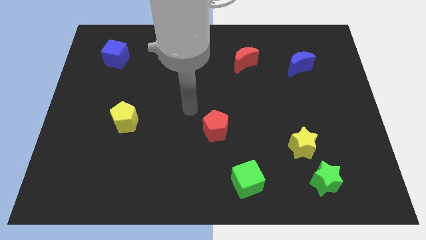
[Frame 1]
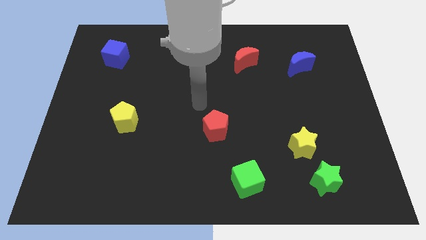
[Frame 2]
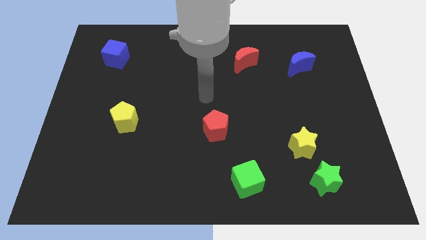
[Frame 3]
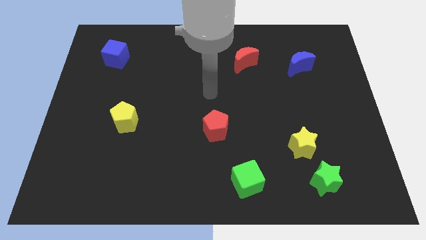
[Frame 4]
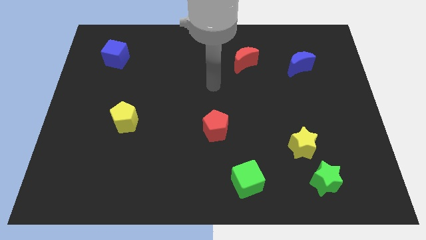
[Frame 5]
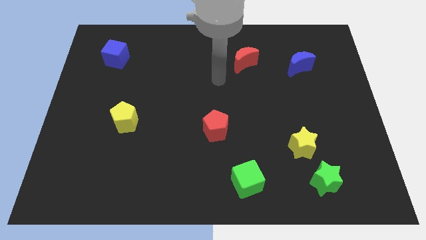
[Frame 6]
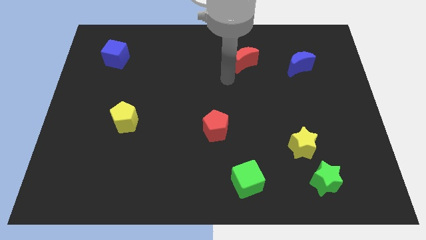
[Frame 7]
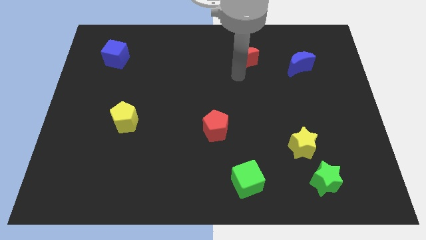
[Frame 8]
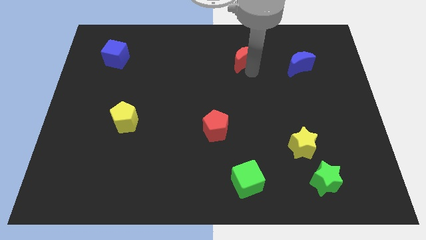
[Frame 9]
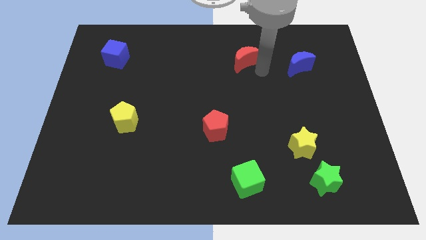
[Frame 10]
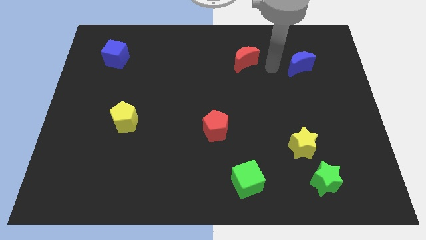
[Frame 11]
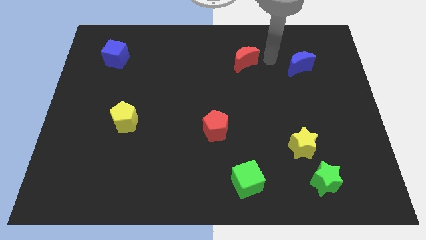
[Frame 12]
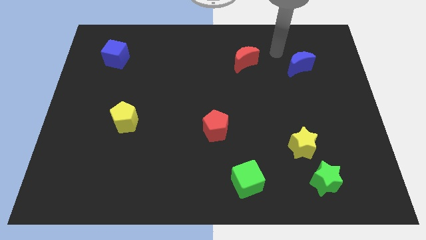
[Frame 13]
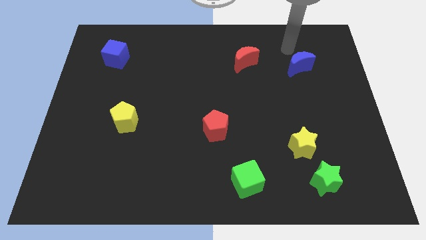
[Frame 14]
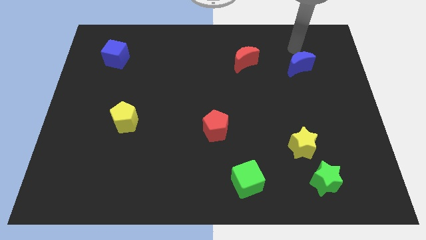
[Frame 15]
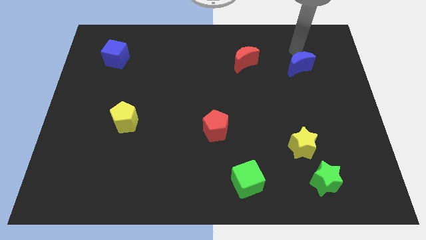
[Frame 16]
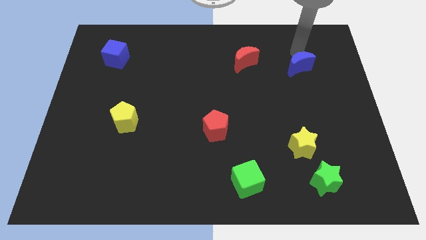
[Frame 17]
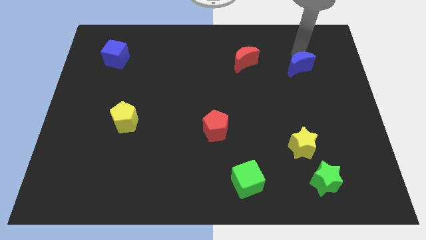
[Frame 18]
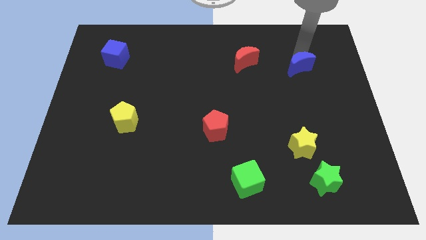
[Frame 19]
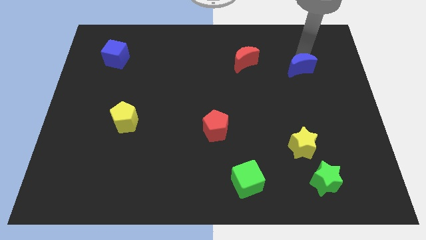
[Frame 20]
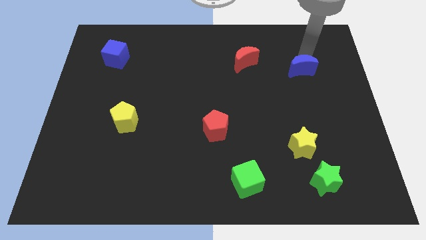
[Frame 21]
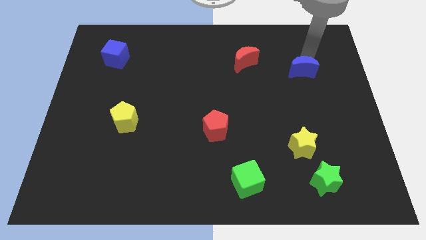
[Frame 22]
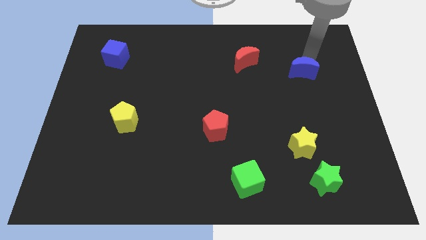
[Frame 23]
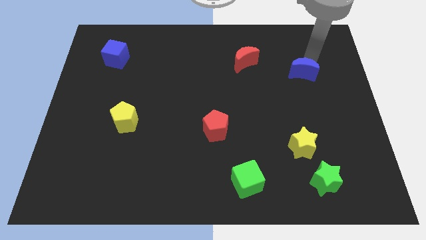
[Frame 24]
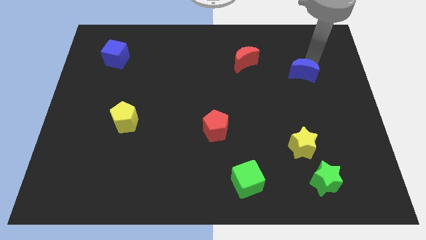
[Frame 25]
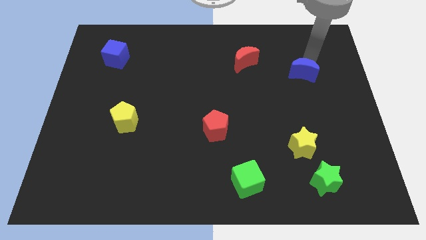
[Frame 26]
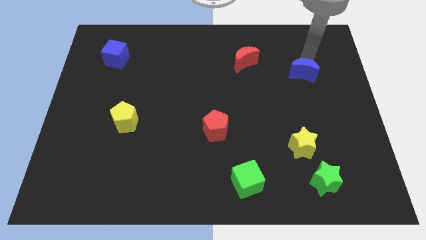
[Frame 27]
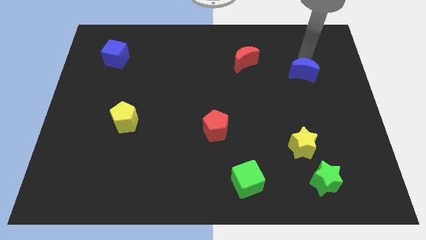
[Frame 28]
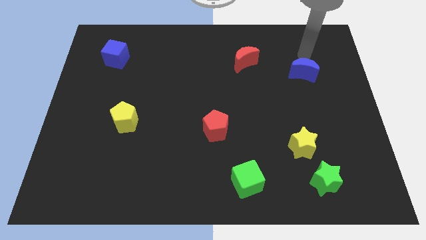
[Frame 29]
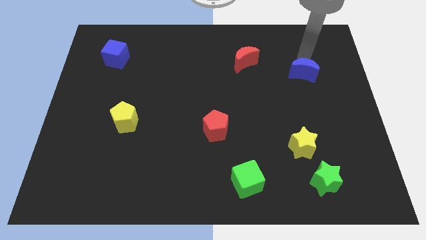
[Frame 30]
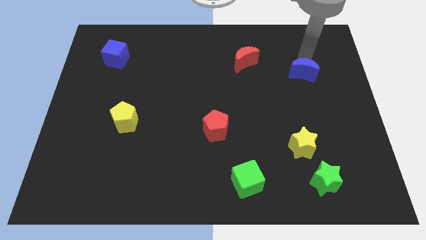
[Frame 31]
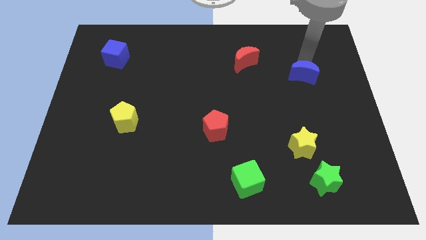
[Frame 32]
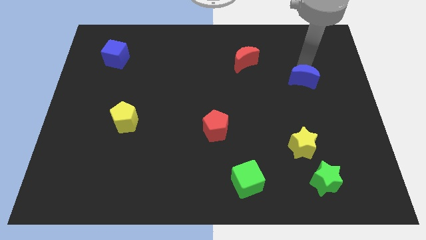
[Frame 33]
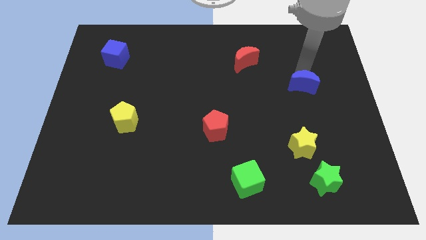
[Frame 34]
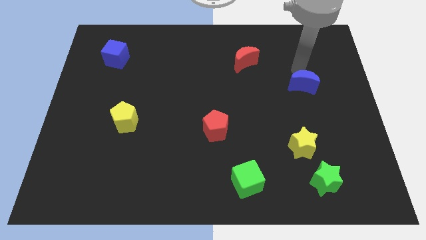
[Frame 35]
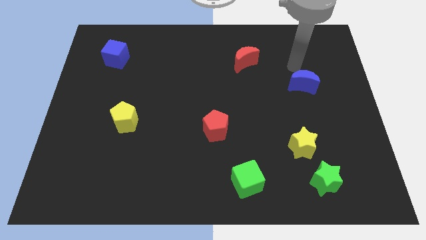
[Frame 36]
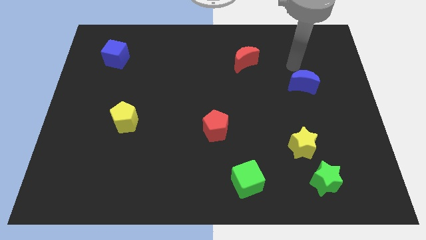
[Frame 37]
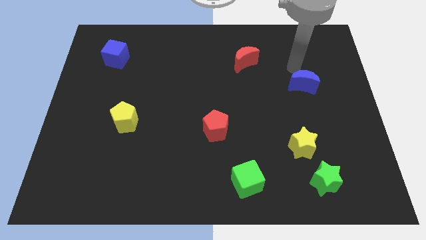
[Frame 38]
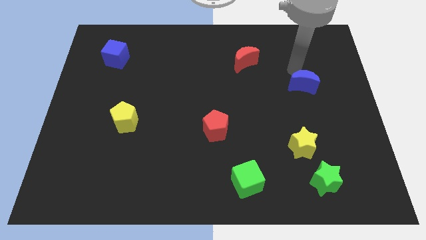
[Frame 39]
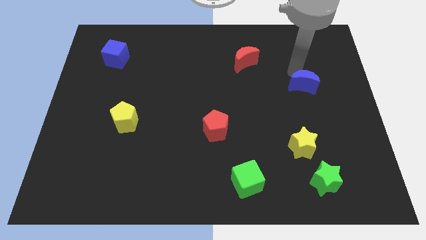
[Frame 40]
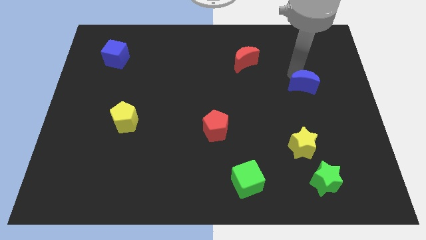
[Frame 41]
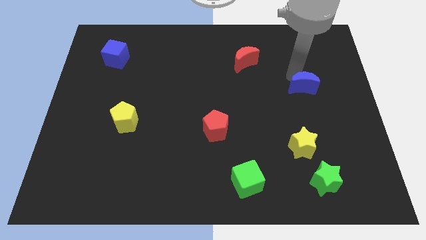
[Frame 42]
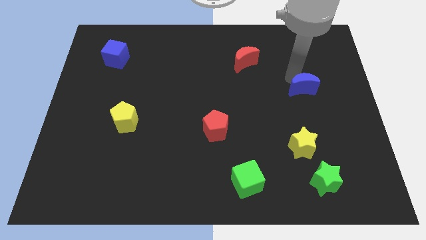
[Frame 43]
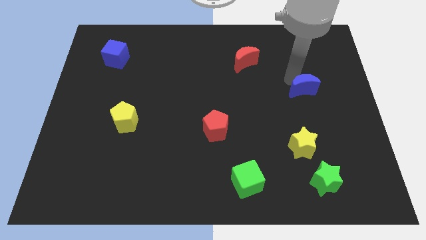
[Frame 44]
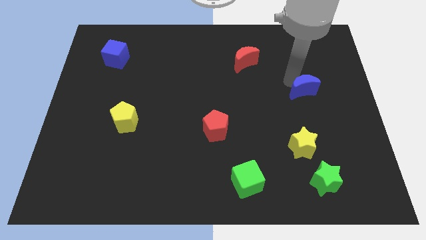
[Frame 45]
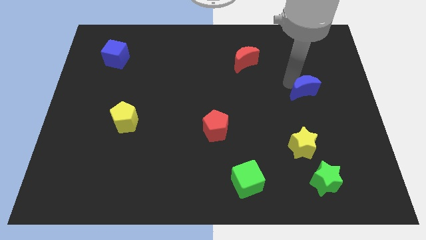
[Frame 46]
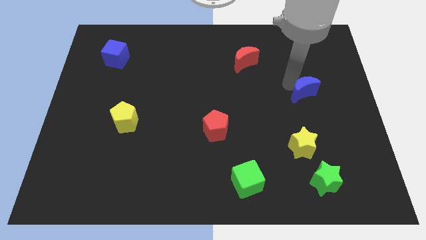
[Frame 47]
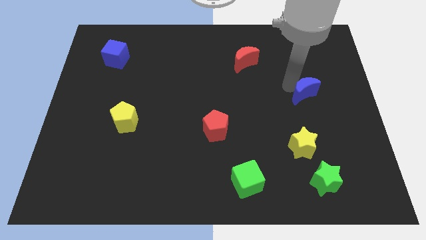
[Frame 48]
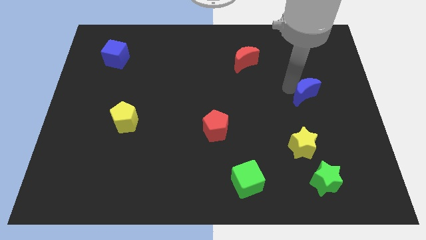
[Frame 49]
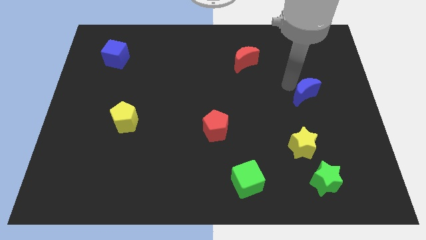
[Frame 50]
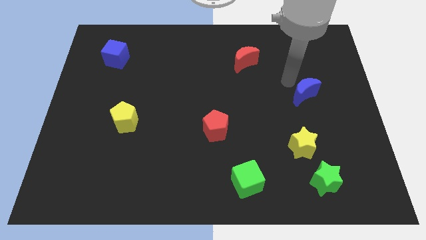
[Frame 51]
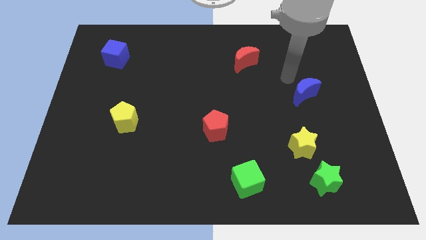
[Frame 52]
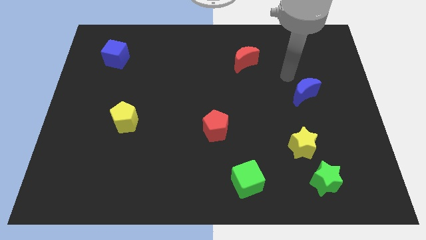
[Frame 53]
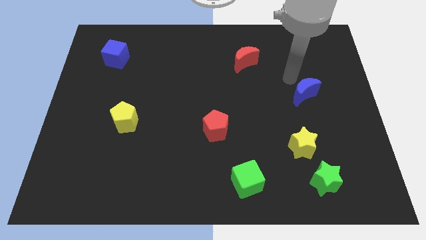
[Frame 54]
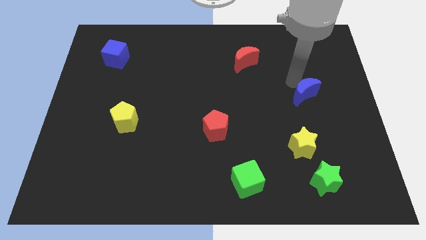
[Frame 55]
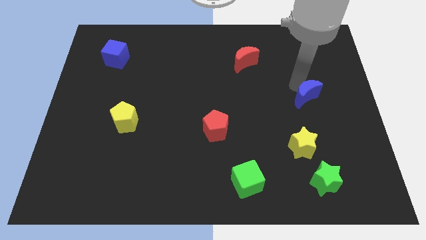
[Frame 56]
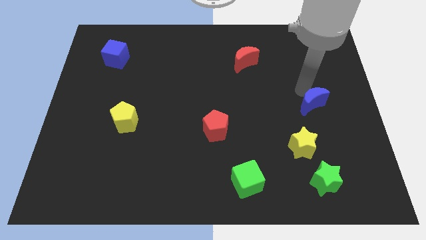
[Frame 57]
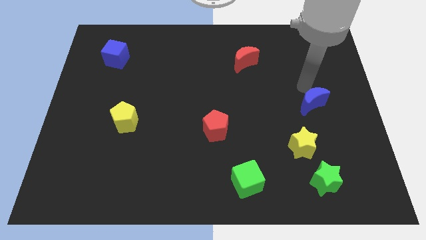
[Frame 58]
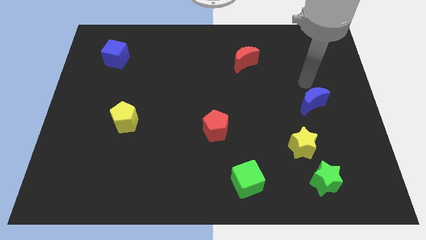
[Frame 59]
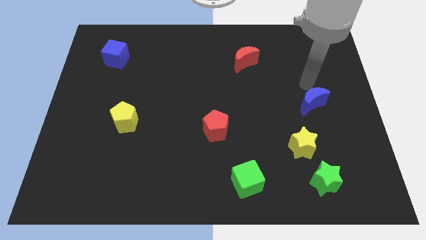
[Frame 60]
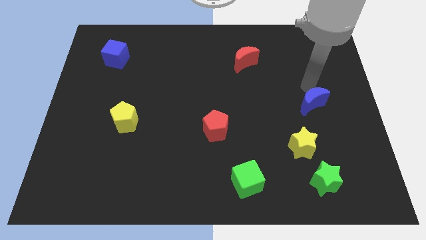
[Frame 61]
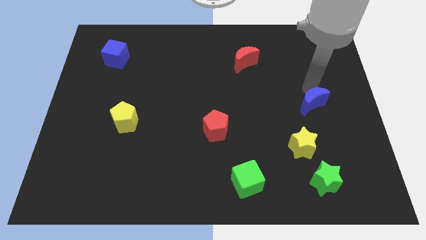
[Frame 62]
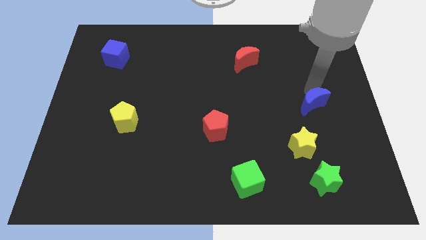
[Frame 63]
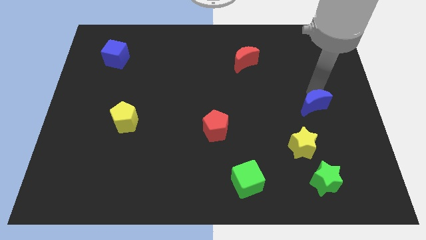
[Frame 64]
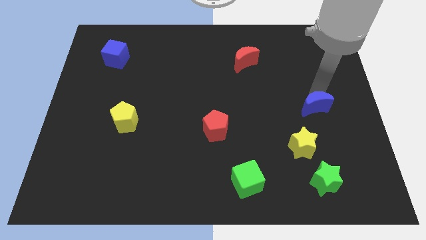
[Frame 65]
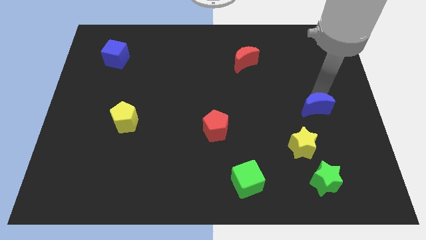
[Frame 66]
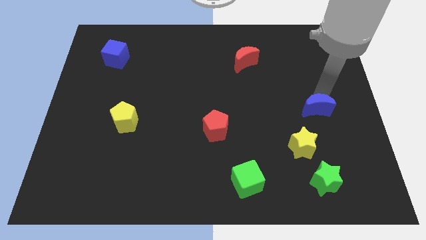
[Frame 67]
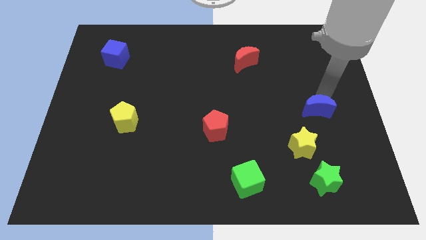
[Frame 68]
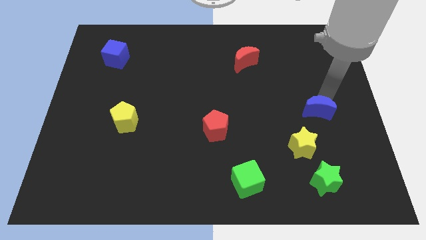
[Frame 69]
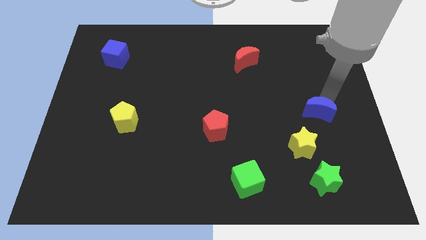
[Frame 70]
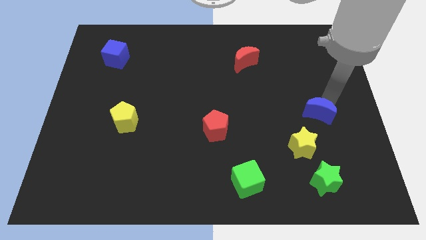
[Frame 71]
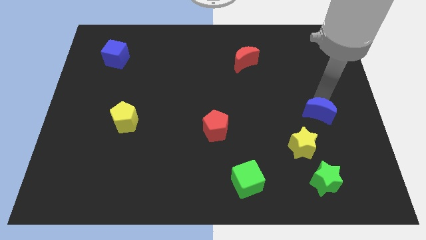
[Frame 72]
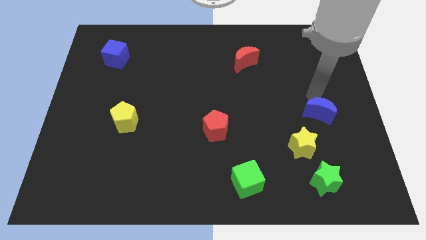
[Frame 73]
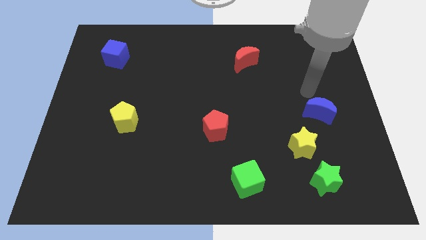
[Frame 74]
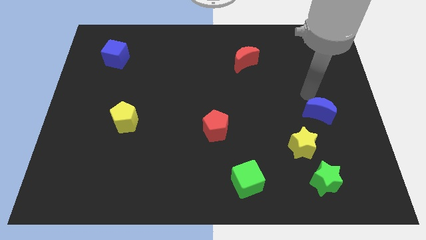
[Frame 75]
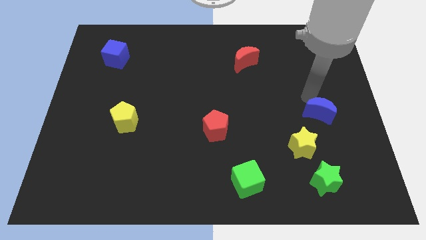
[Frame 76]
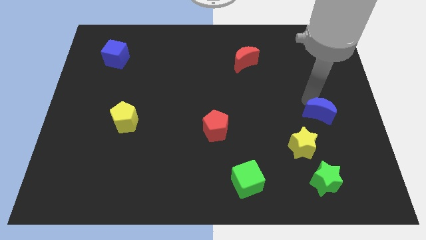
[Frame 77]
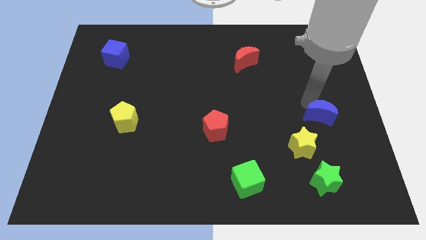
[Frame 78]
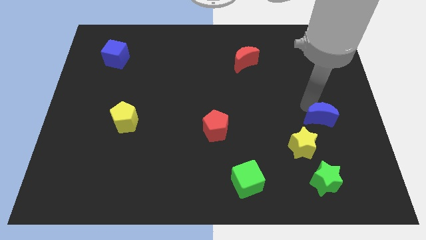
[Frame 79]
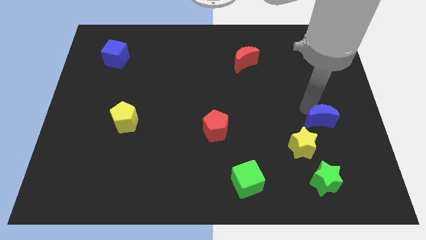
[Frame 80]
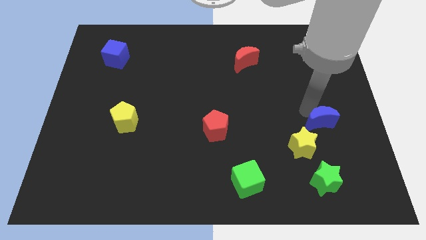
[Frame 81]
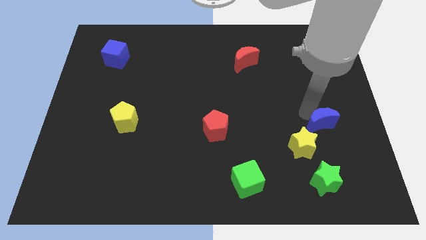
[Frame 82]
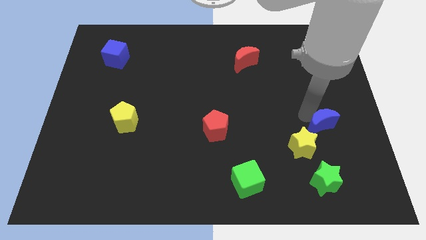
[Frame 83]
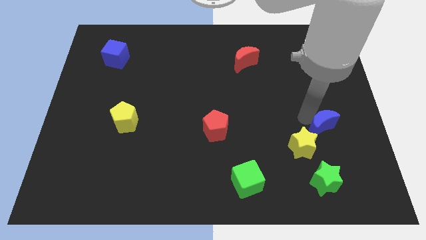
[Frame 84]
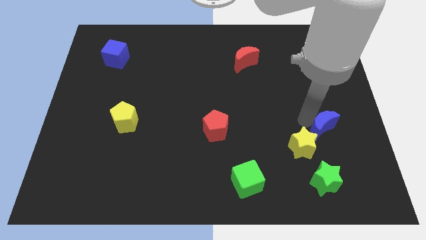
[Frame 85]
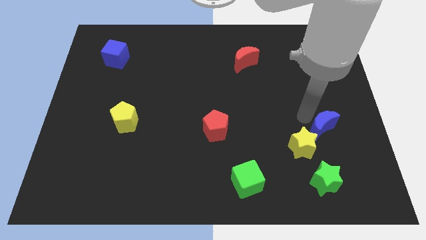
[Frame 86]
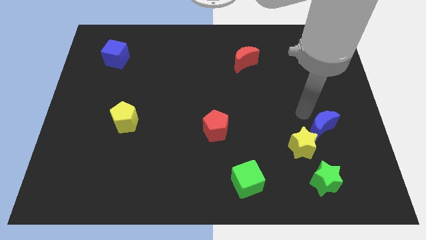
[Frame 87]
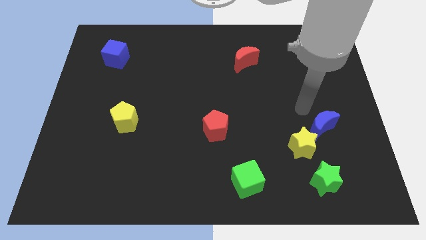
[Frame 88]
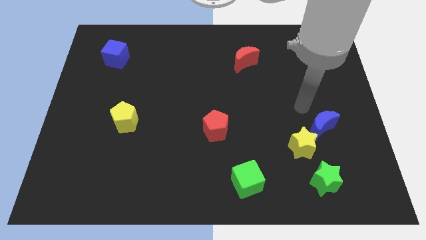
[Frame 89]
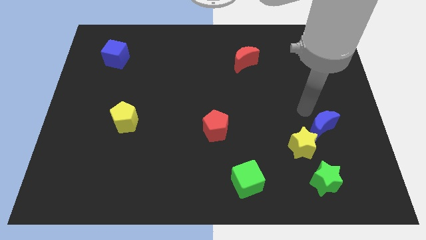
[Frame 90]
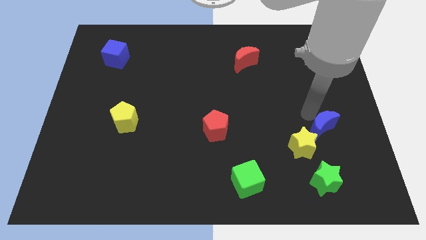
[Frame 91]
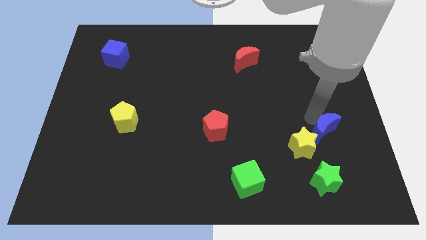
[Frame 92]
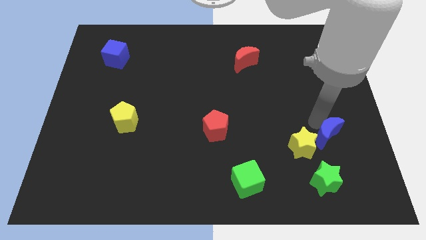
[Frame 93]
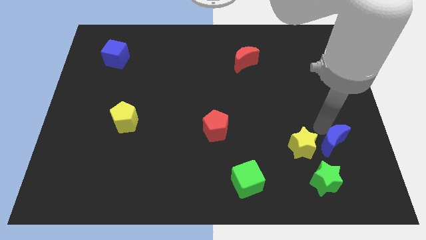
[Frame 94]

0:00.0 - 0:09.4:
push the blue moon diagonally up and to the right of the green star
